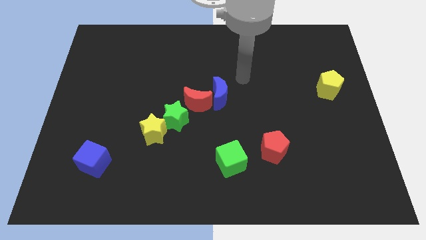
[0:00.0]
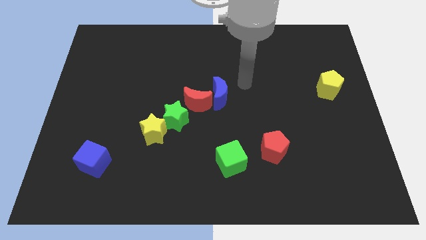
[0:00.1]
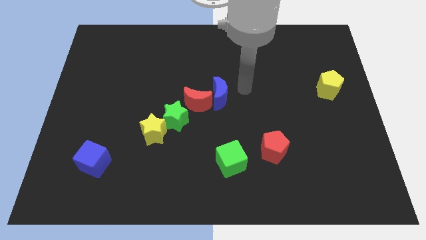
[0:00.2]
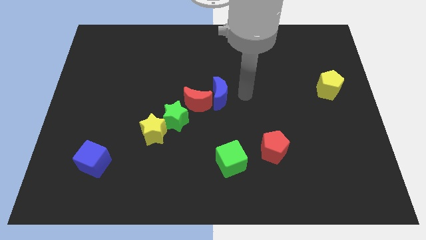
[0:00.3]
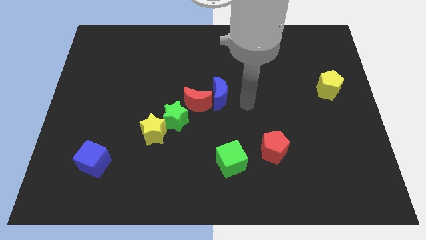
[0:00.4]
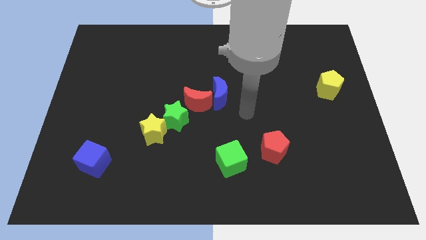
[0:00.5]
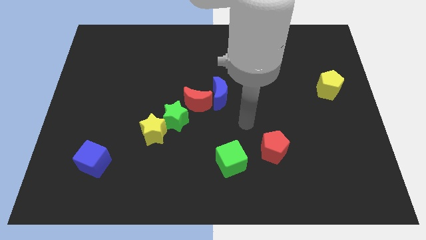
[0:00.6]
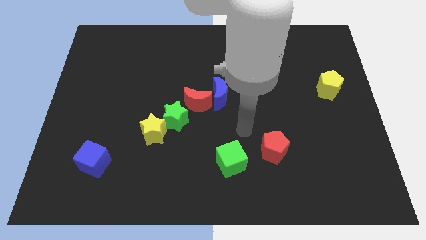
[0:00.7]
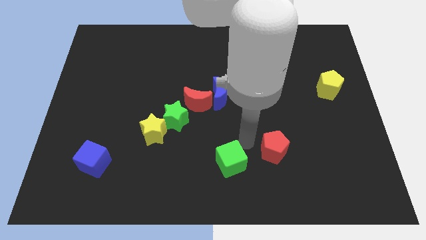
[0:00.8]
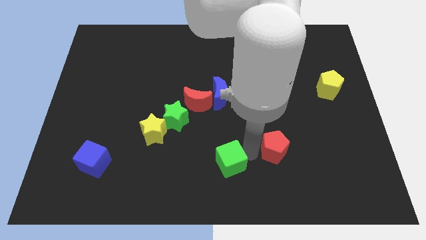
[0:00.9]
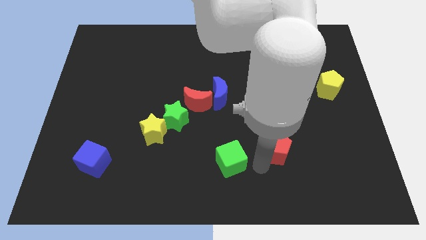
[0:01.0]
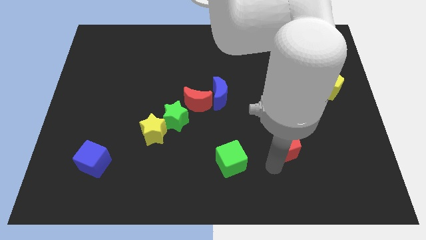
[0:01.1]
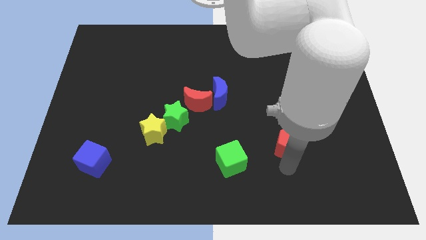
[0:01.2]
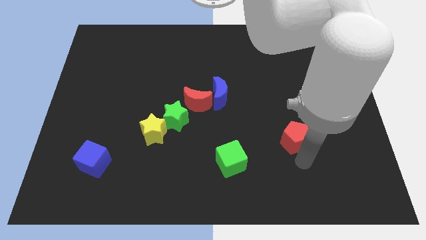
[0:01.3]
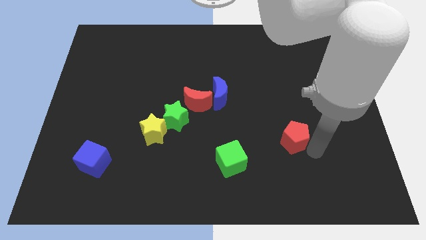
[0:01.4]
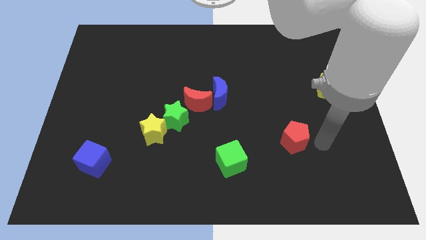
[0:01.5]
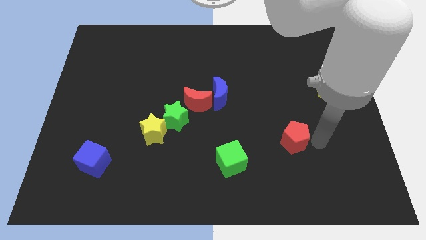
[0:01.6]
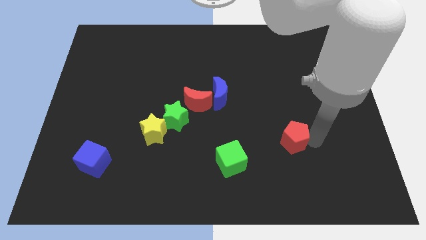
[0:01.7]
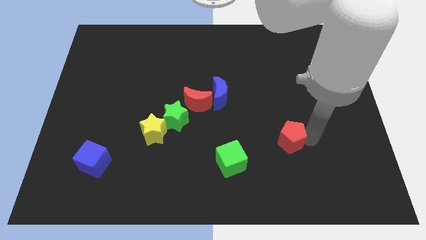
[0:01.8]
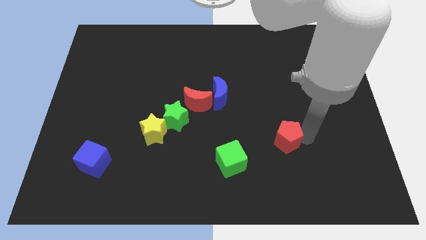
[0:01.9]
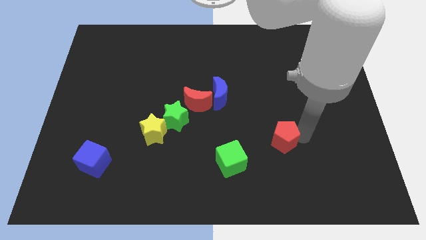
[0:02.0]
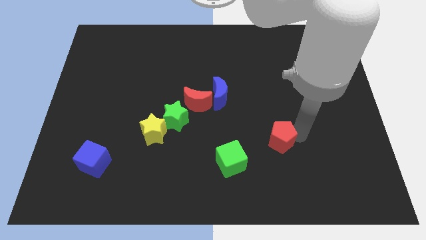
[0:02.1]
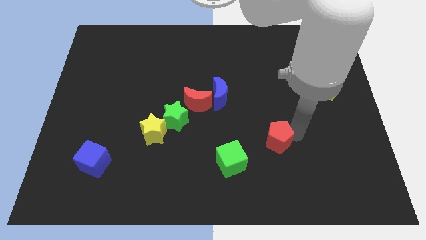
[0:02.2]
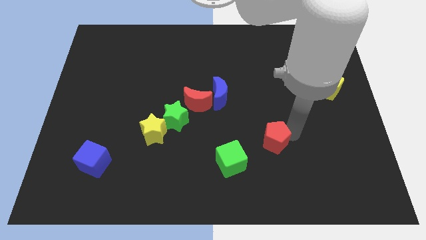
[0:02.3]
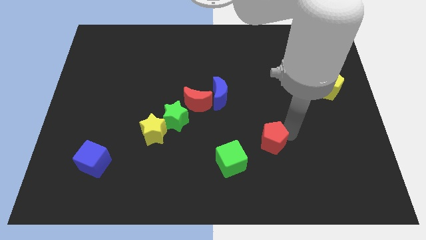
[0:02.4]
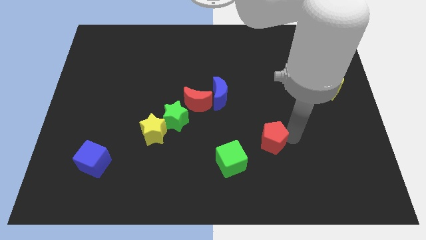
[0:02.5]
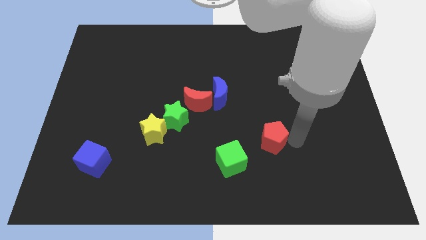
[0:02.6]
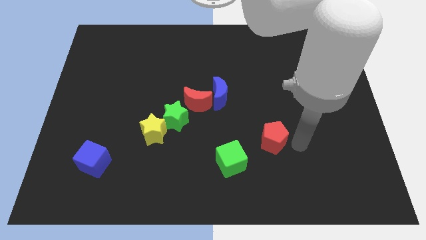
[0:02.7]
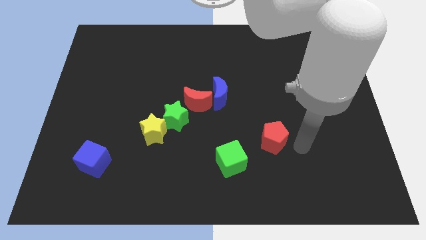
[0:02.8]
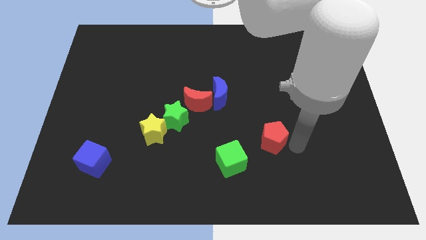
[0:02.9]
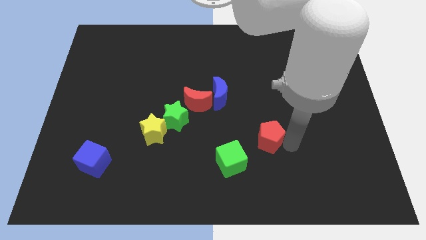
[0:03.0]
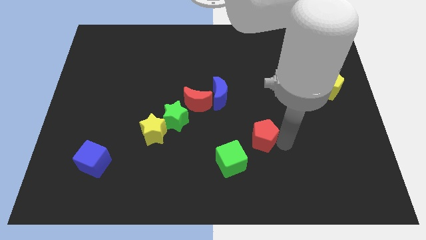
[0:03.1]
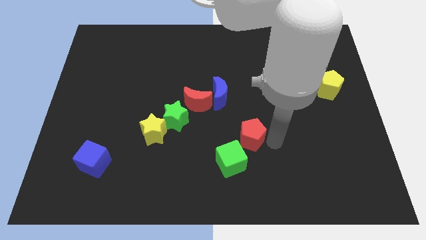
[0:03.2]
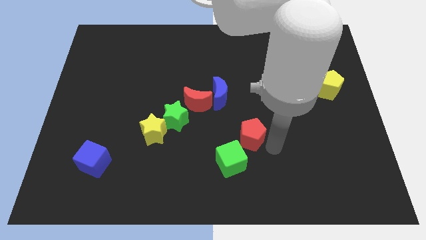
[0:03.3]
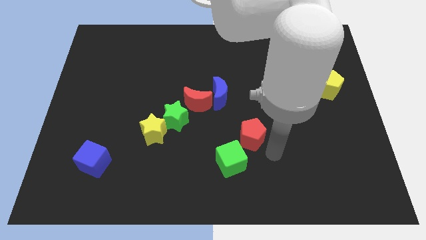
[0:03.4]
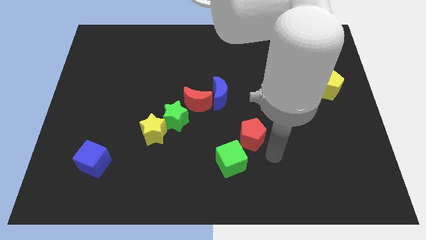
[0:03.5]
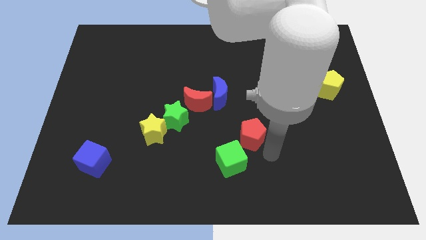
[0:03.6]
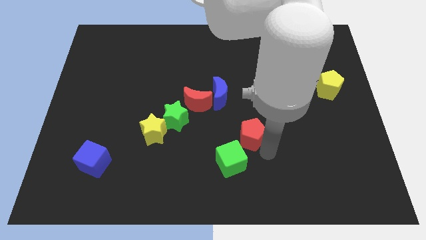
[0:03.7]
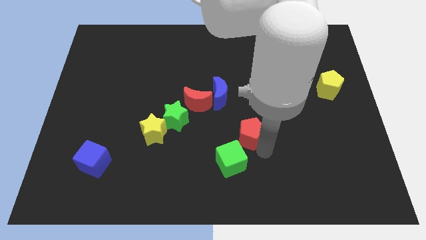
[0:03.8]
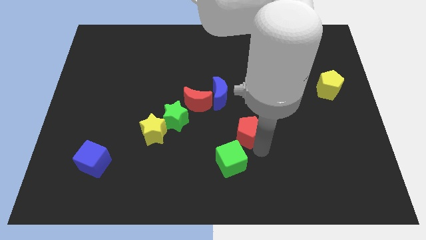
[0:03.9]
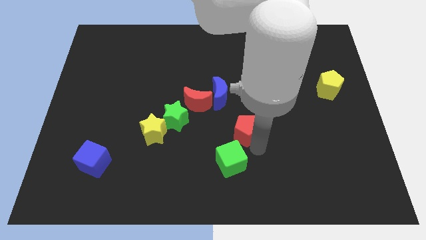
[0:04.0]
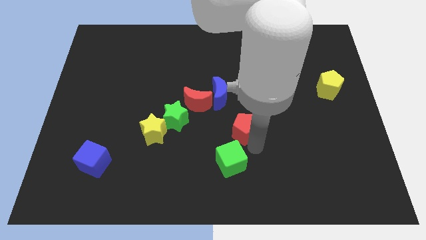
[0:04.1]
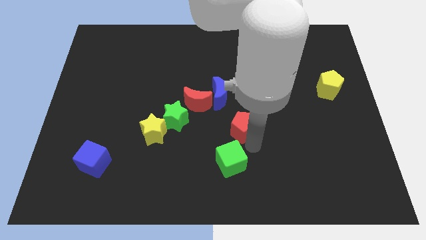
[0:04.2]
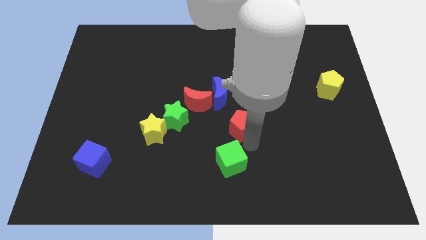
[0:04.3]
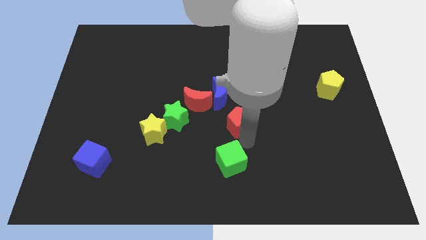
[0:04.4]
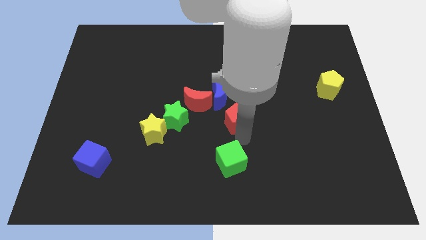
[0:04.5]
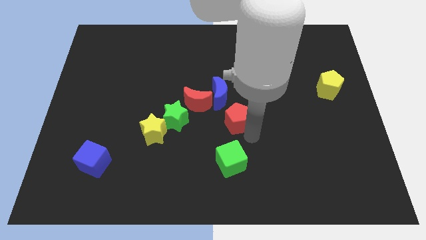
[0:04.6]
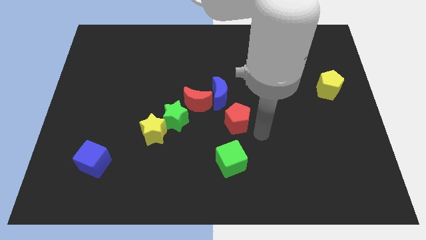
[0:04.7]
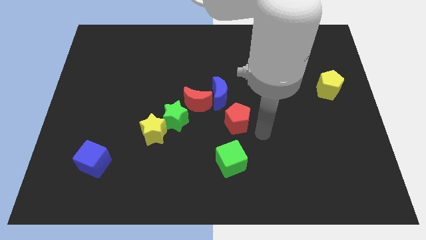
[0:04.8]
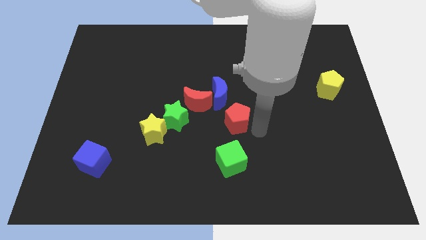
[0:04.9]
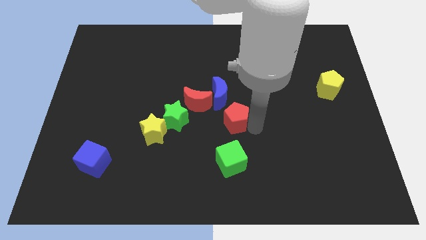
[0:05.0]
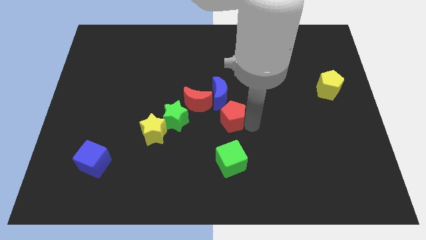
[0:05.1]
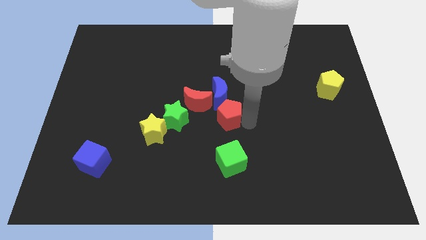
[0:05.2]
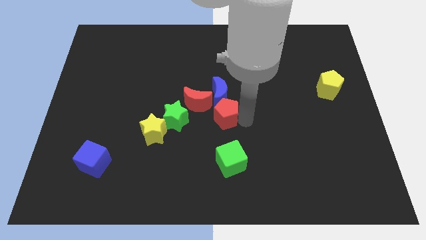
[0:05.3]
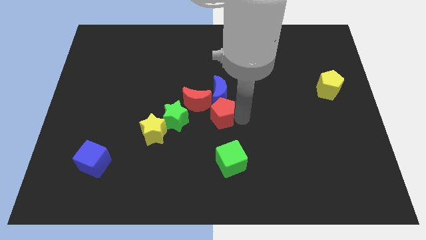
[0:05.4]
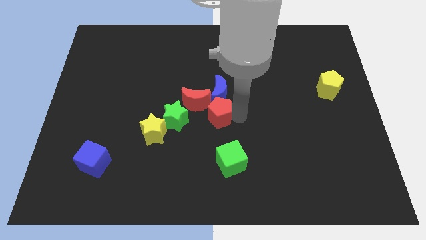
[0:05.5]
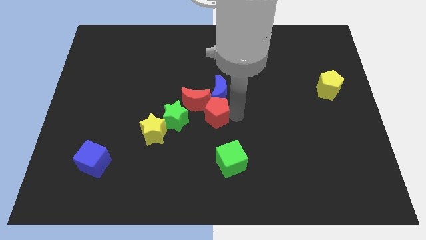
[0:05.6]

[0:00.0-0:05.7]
move the red pentagon towards the red moon

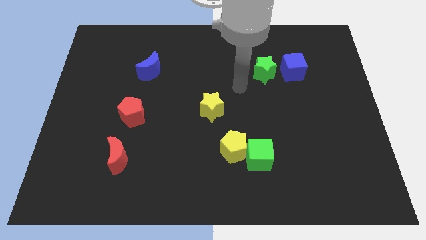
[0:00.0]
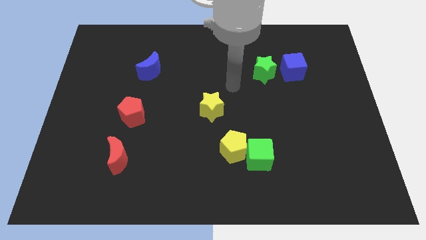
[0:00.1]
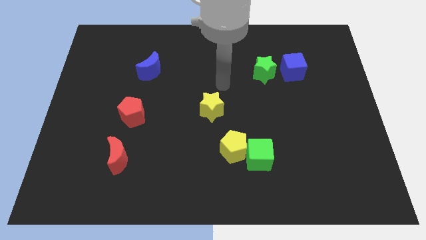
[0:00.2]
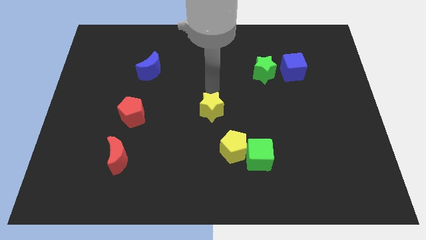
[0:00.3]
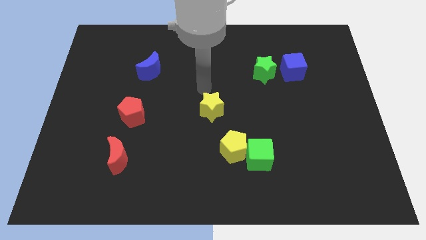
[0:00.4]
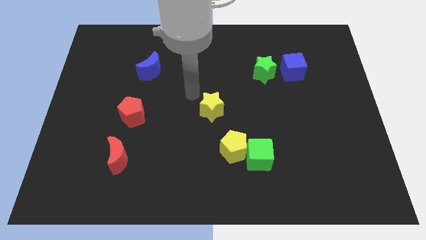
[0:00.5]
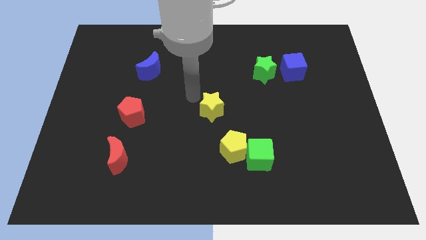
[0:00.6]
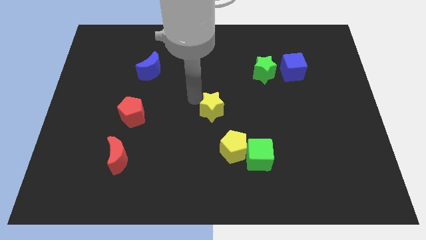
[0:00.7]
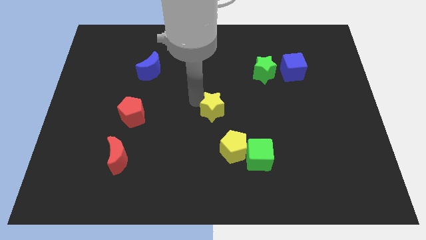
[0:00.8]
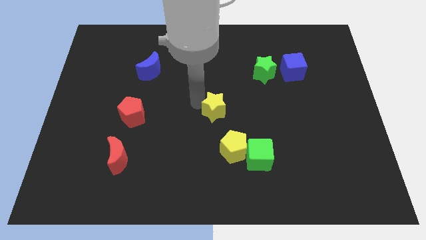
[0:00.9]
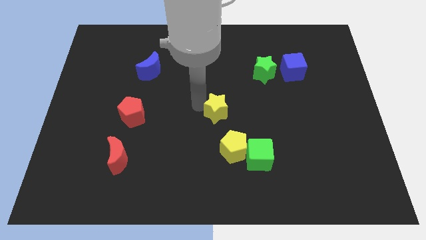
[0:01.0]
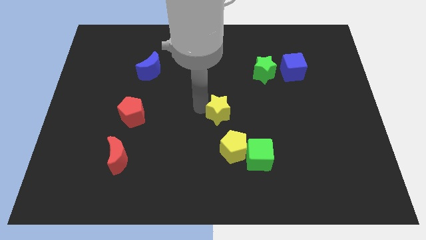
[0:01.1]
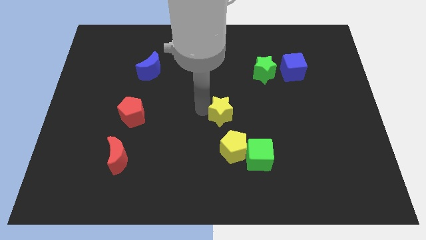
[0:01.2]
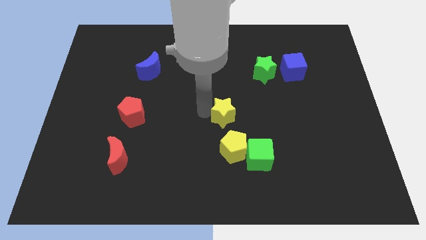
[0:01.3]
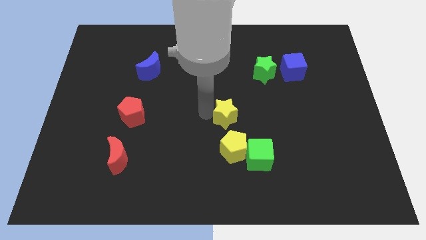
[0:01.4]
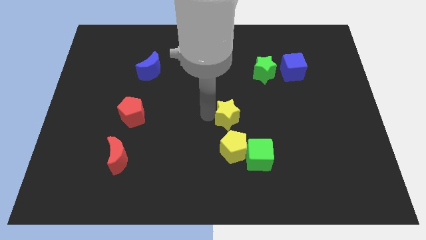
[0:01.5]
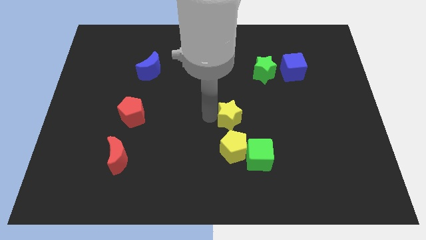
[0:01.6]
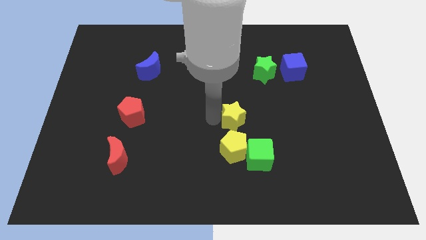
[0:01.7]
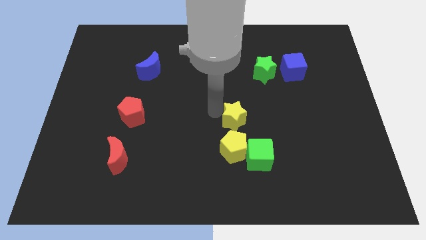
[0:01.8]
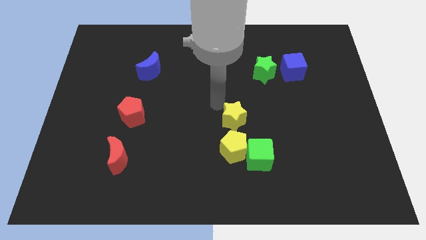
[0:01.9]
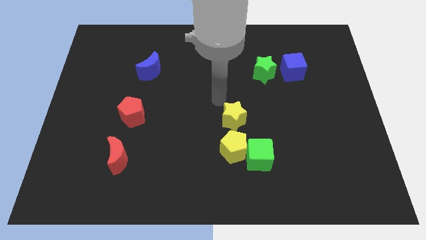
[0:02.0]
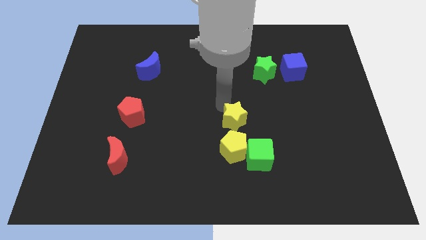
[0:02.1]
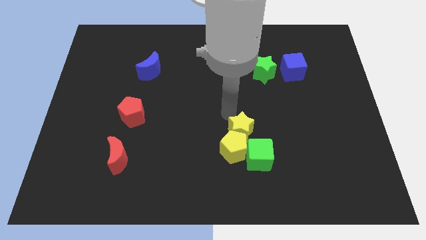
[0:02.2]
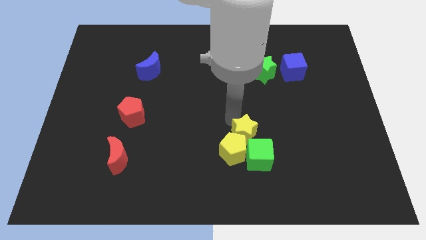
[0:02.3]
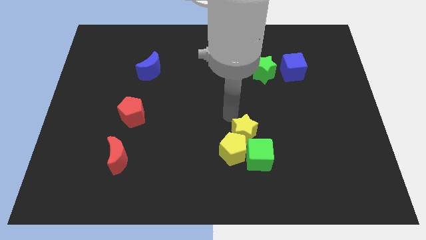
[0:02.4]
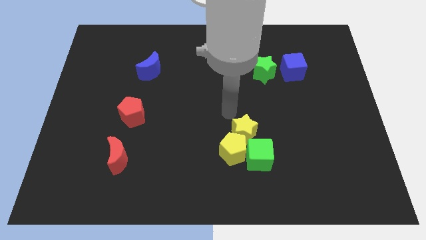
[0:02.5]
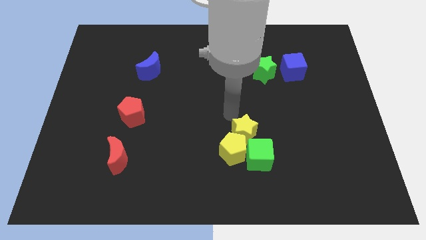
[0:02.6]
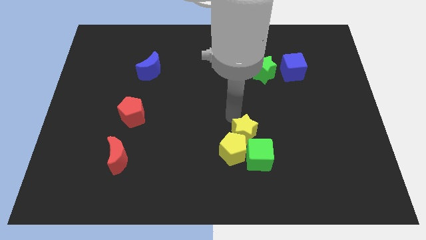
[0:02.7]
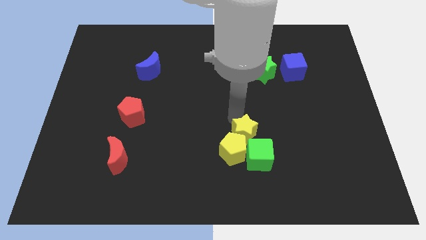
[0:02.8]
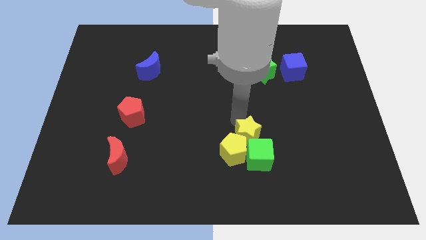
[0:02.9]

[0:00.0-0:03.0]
slide the yellow star next to the green cube
